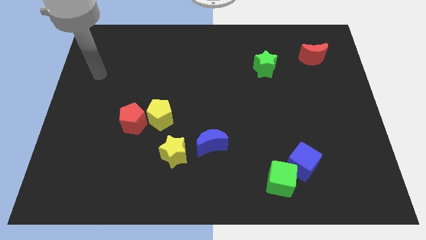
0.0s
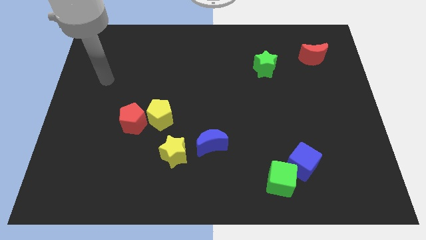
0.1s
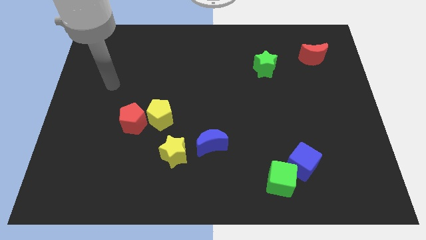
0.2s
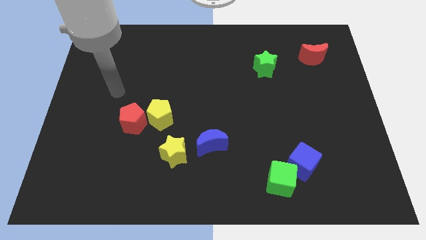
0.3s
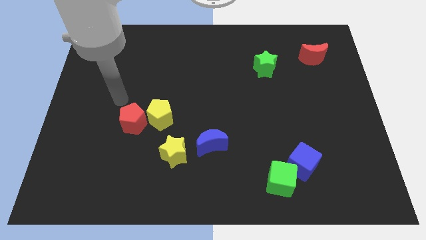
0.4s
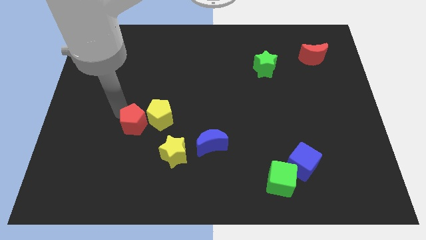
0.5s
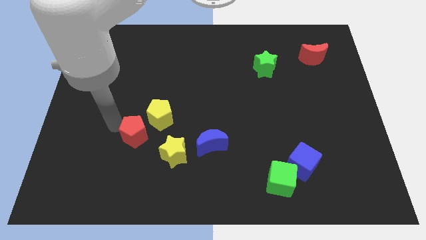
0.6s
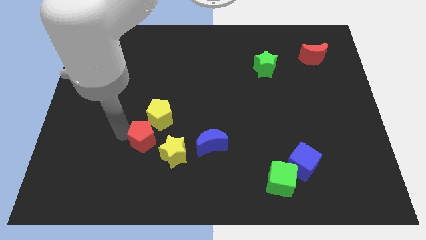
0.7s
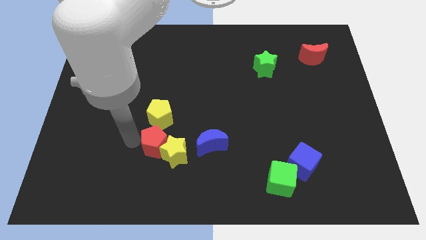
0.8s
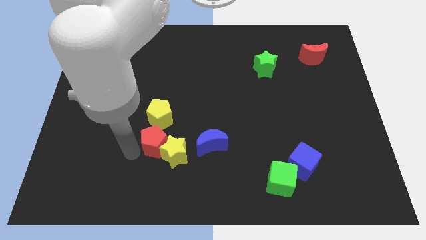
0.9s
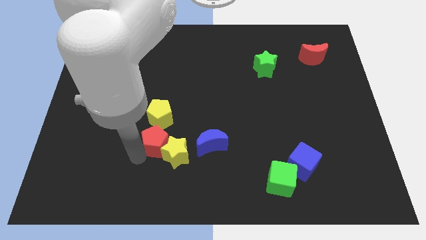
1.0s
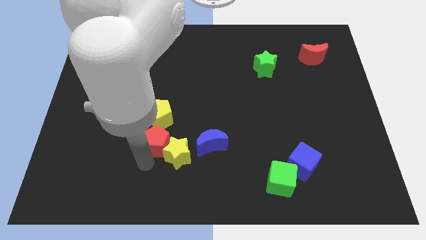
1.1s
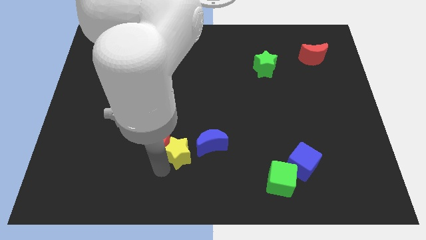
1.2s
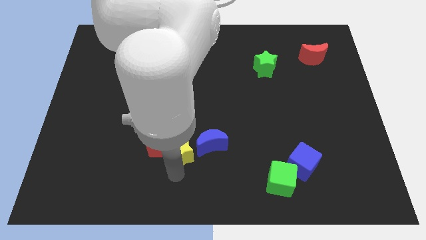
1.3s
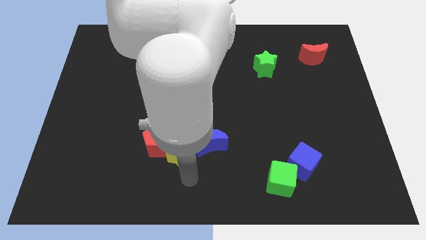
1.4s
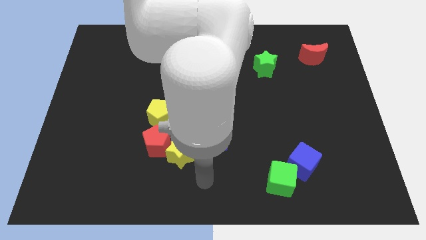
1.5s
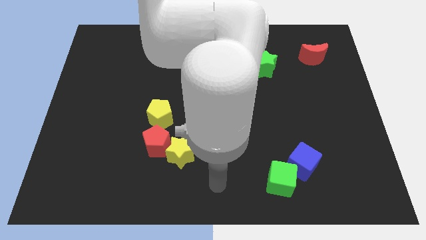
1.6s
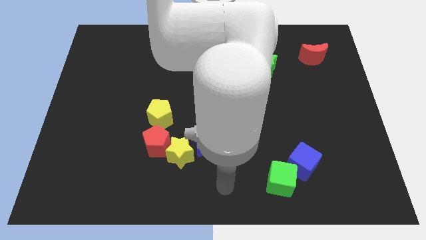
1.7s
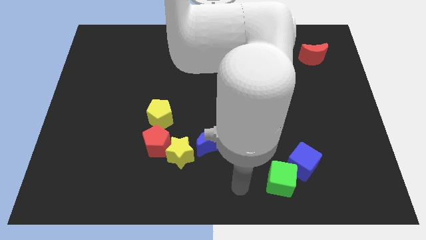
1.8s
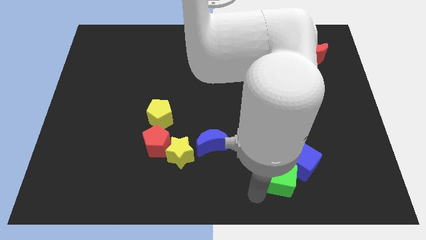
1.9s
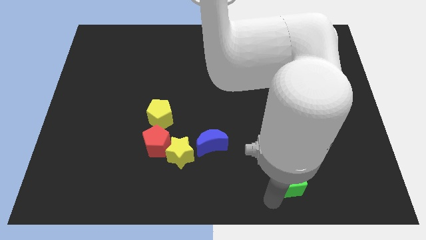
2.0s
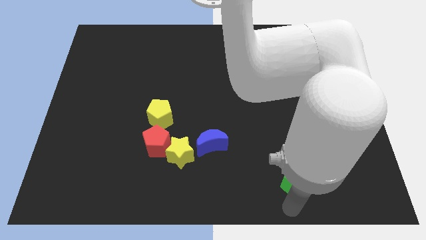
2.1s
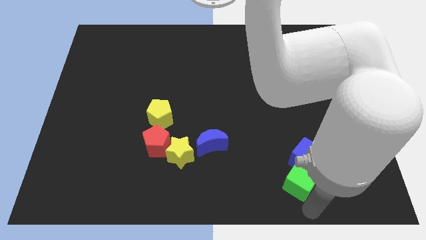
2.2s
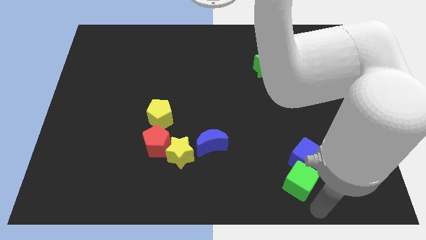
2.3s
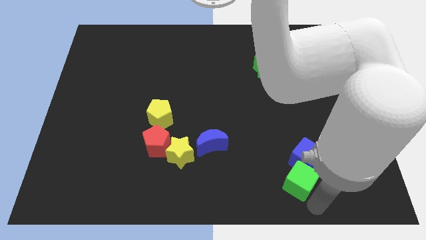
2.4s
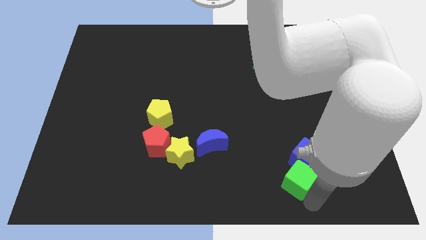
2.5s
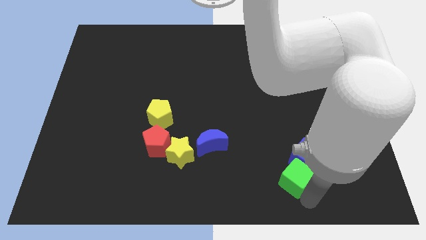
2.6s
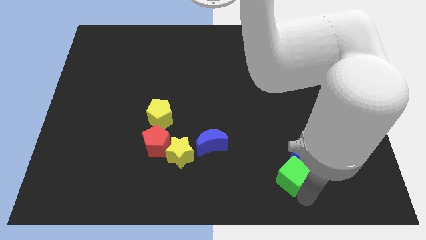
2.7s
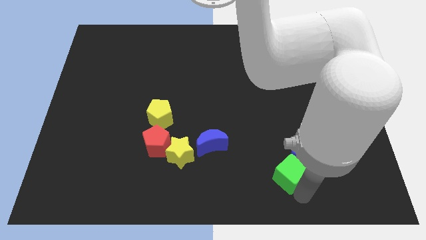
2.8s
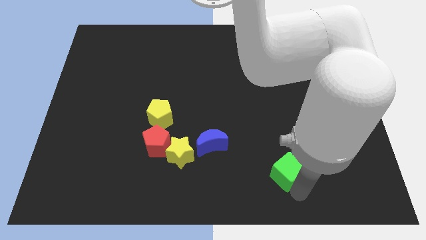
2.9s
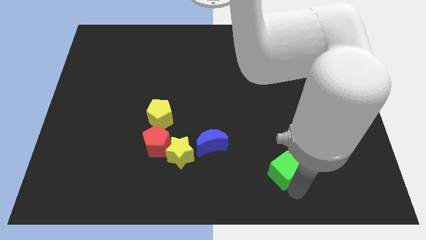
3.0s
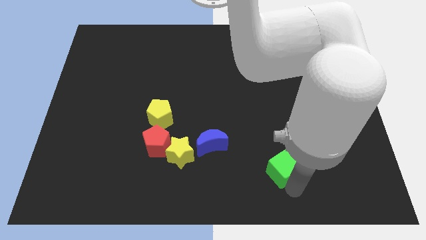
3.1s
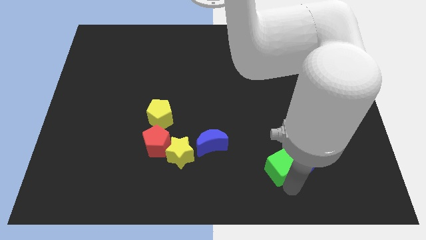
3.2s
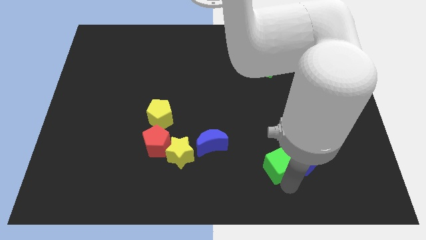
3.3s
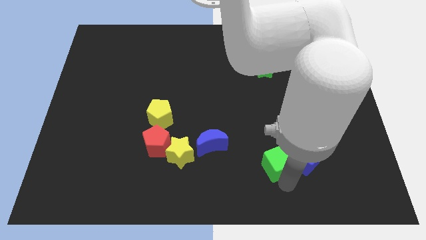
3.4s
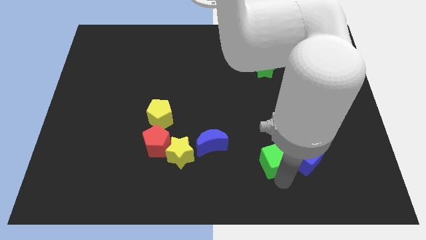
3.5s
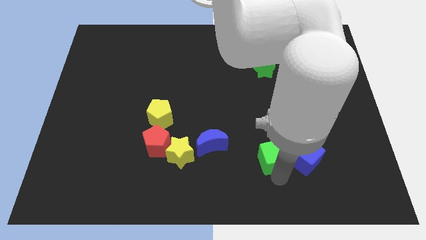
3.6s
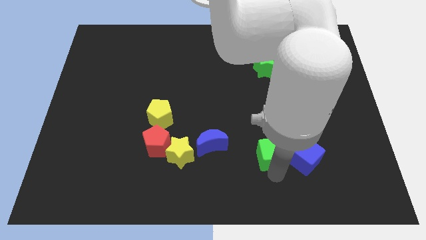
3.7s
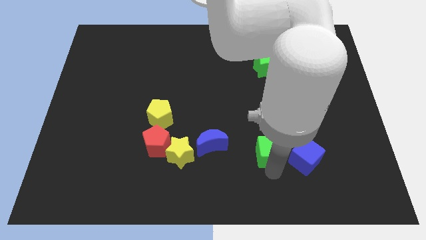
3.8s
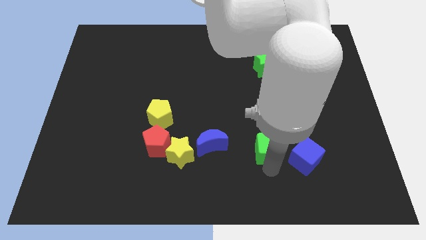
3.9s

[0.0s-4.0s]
move the green cube up a little bit

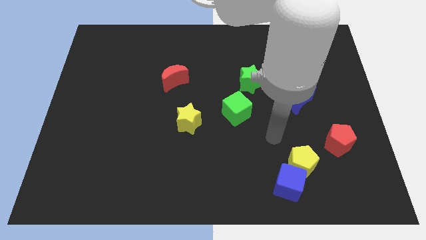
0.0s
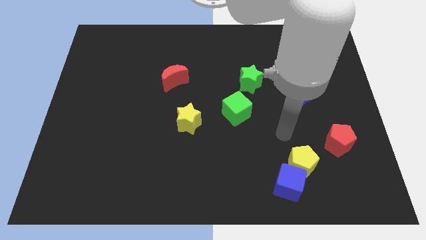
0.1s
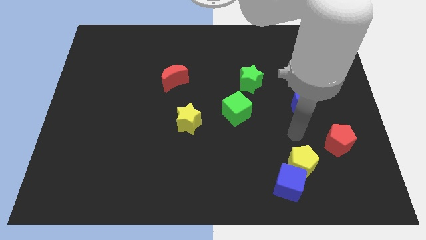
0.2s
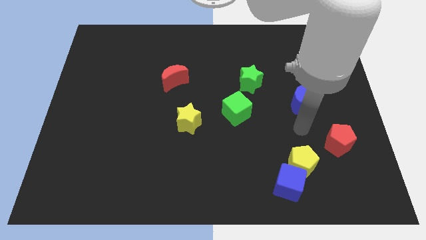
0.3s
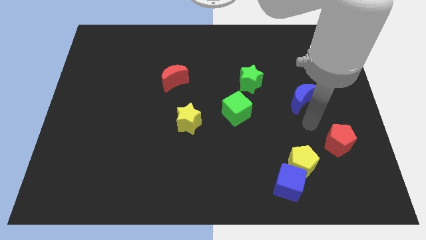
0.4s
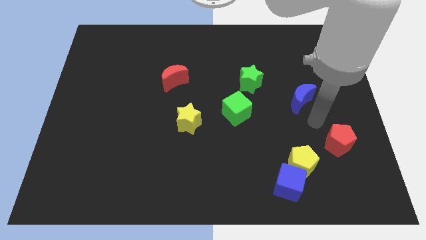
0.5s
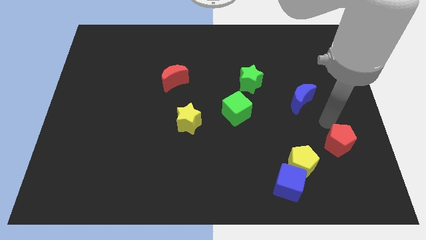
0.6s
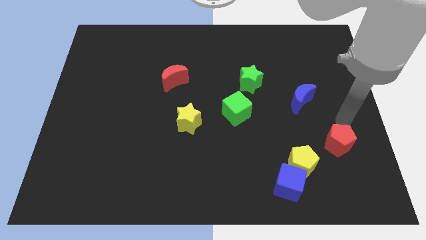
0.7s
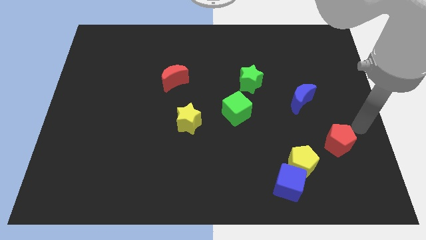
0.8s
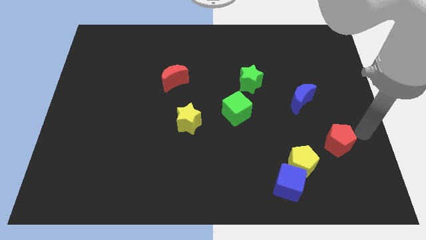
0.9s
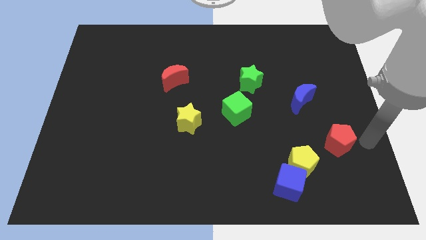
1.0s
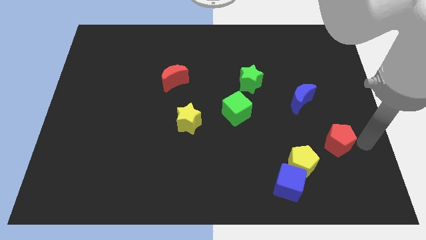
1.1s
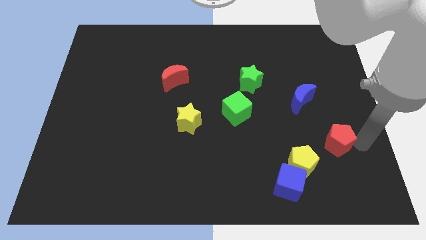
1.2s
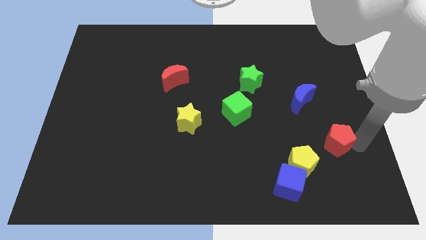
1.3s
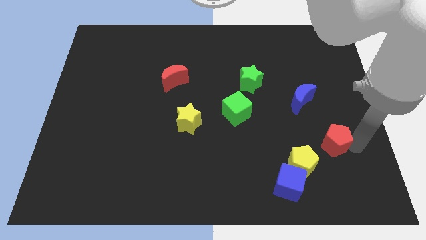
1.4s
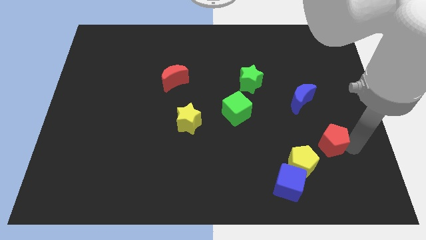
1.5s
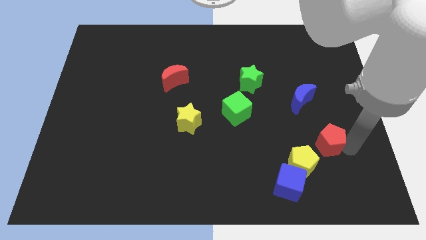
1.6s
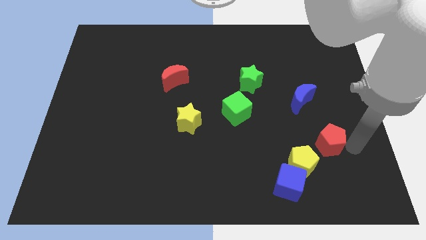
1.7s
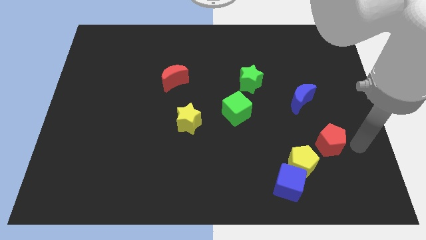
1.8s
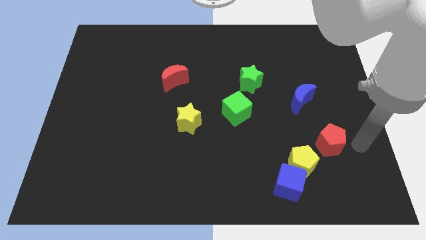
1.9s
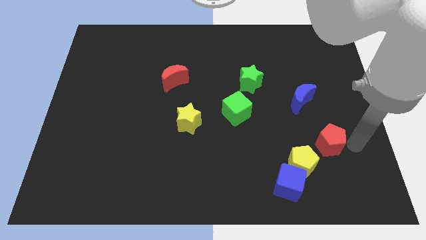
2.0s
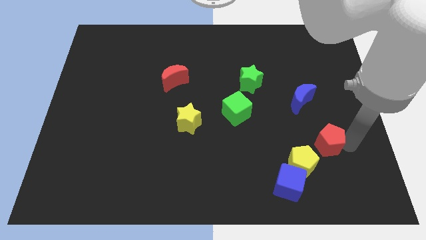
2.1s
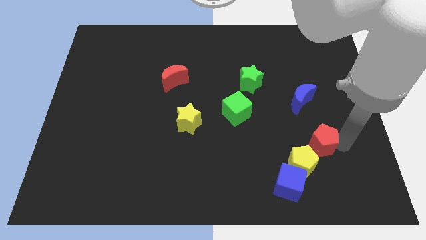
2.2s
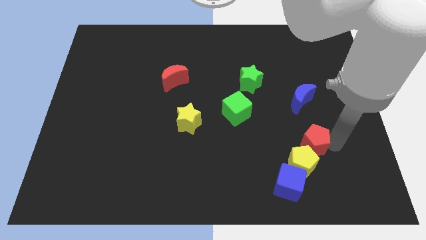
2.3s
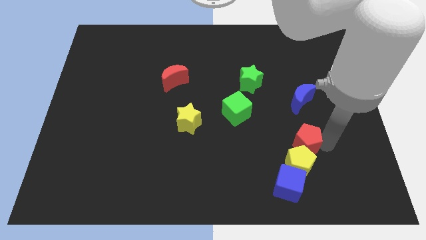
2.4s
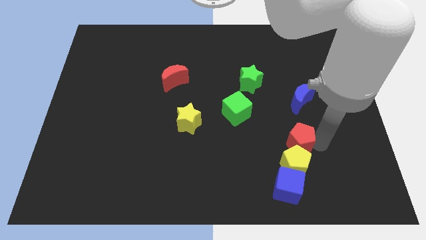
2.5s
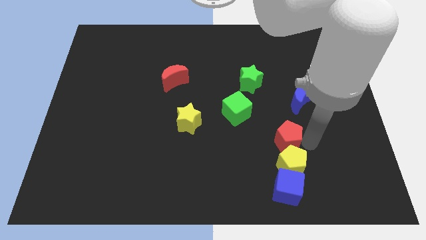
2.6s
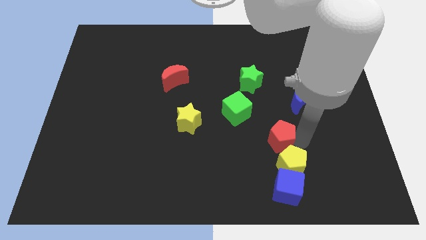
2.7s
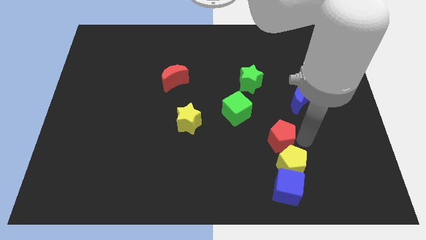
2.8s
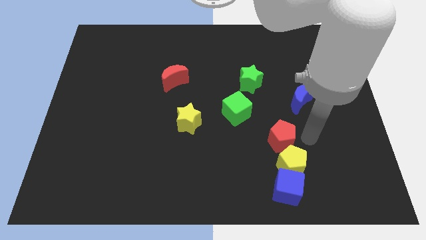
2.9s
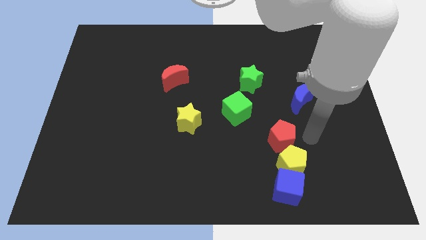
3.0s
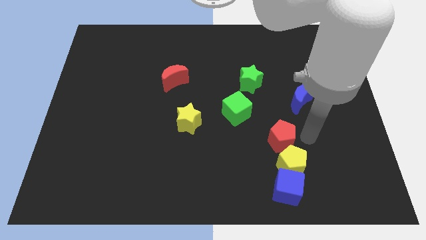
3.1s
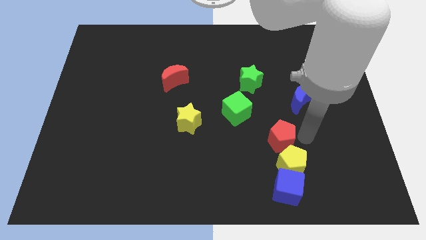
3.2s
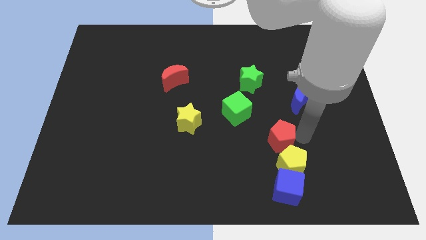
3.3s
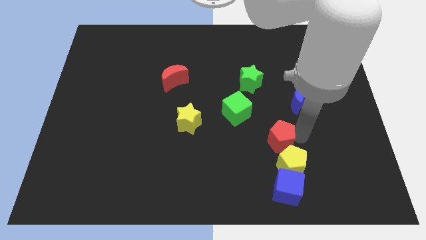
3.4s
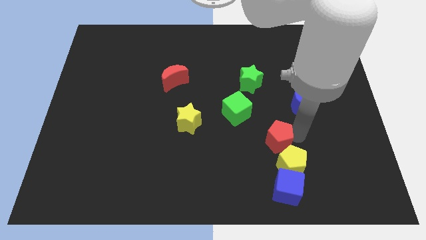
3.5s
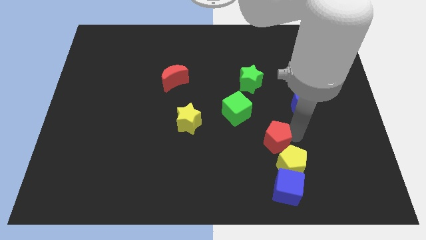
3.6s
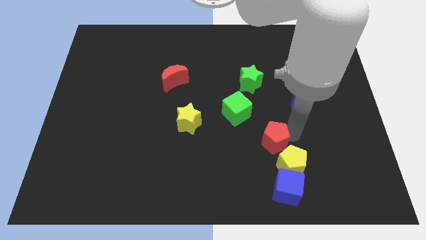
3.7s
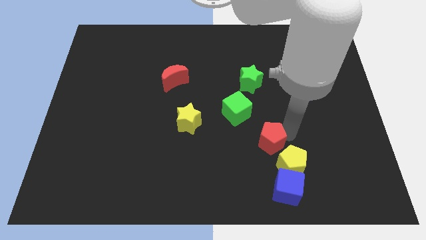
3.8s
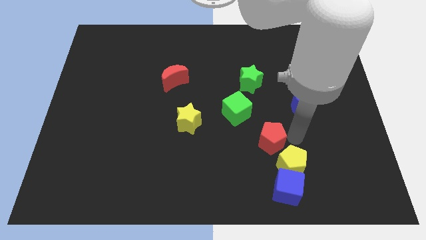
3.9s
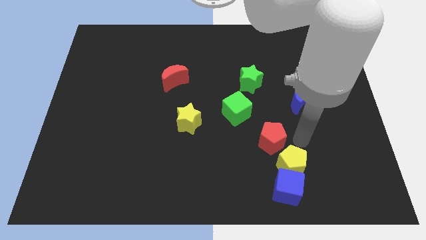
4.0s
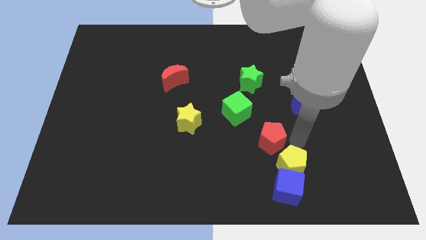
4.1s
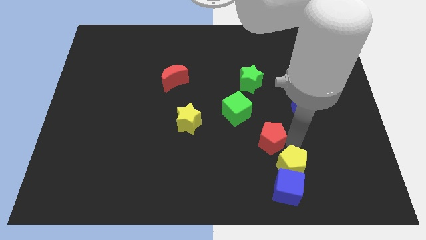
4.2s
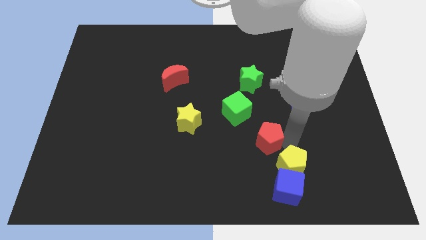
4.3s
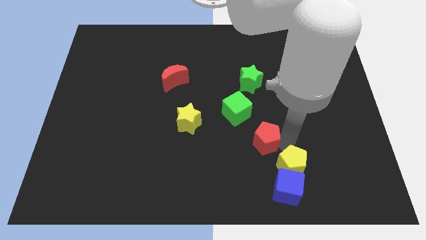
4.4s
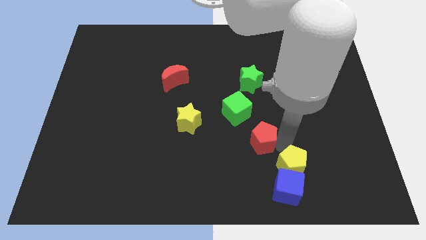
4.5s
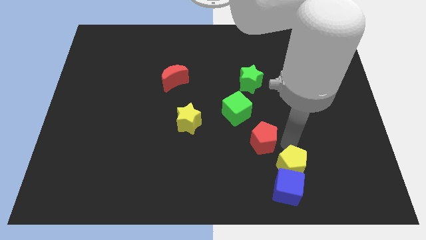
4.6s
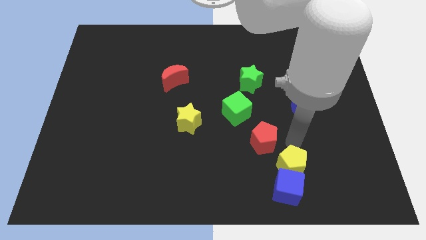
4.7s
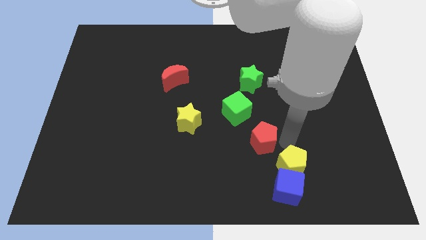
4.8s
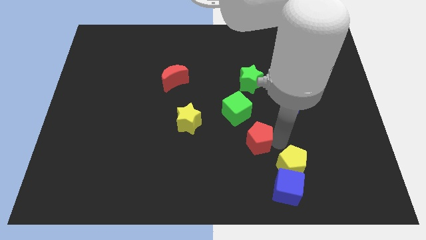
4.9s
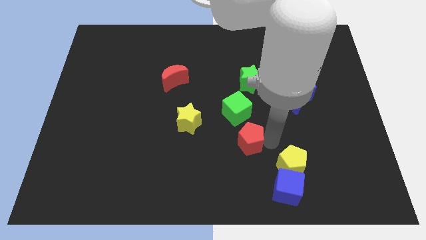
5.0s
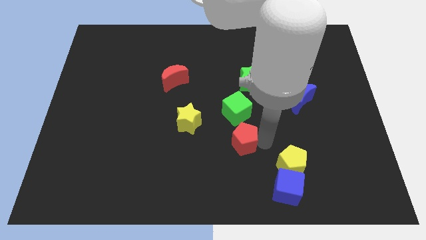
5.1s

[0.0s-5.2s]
push the red pentagon left
